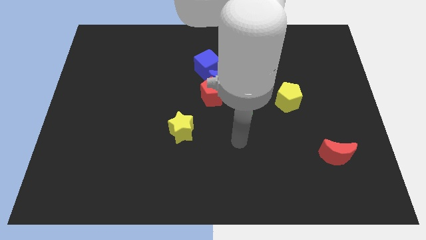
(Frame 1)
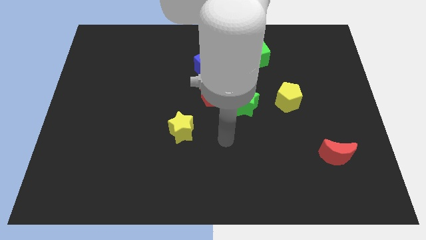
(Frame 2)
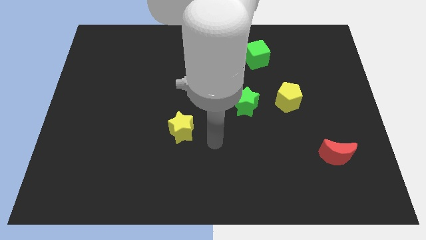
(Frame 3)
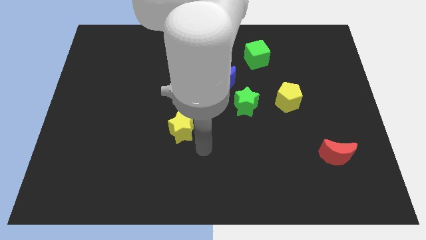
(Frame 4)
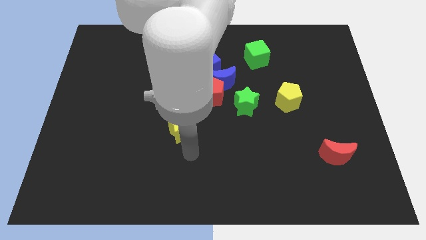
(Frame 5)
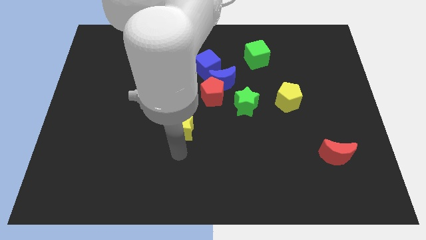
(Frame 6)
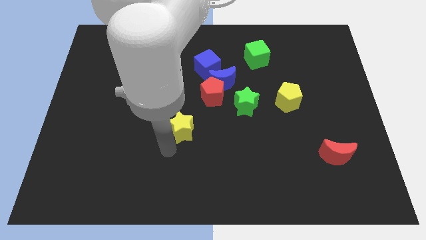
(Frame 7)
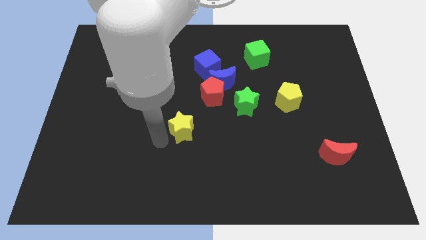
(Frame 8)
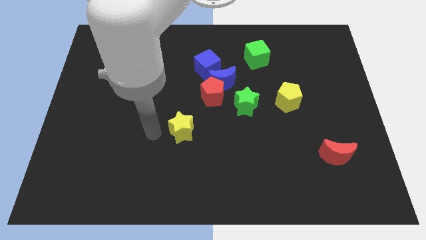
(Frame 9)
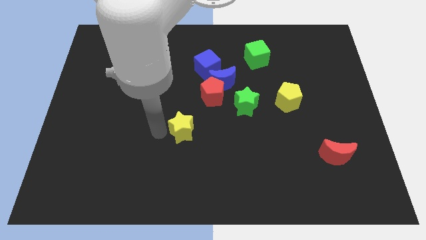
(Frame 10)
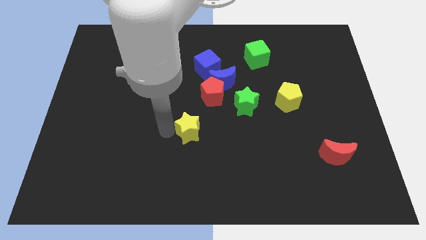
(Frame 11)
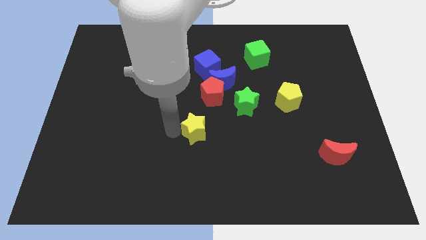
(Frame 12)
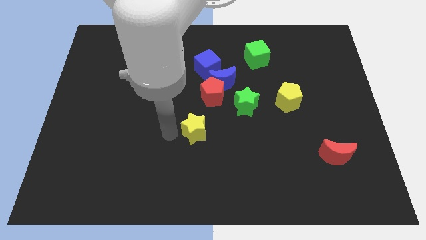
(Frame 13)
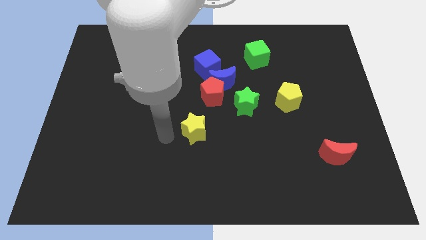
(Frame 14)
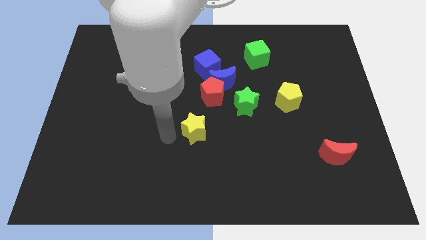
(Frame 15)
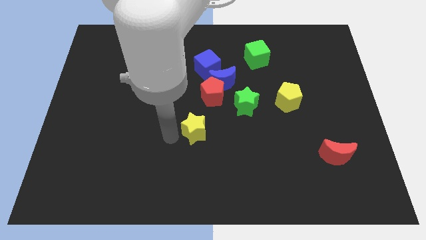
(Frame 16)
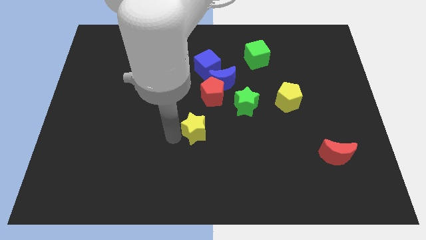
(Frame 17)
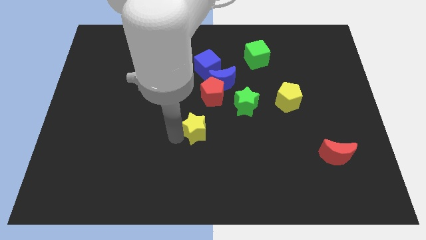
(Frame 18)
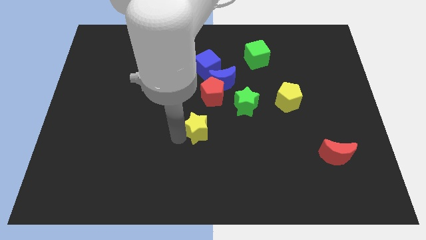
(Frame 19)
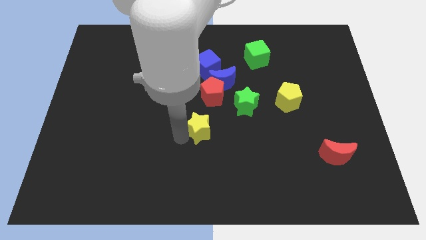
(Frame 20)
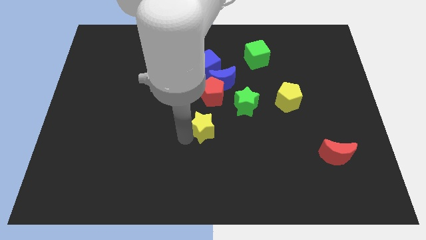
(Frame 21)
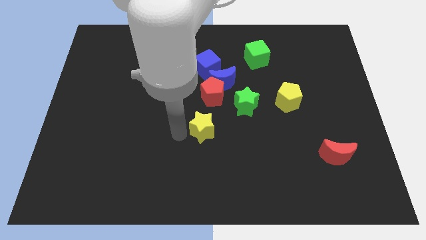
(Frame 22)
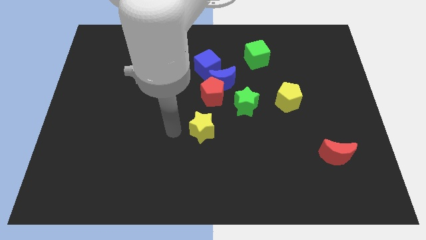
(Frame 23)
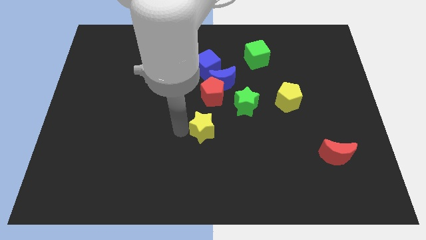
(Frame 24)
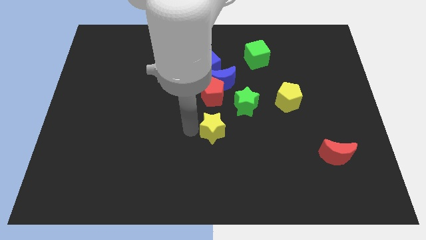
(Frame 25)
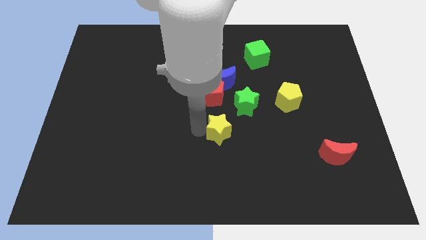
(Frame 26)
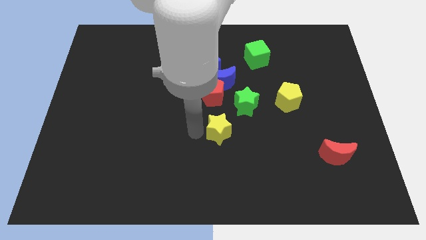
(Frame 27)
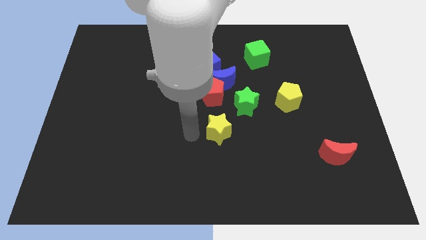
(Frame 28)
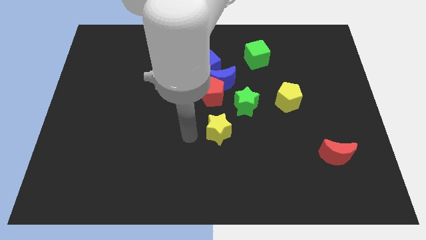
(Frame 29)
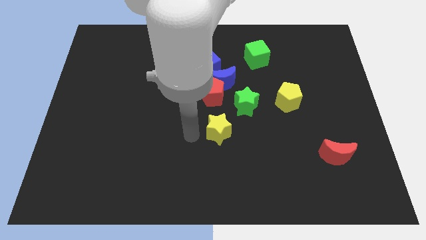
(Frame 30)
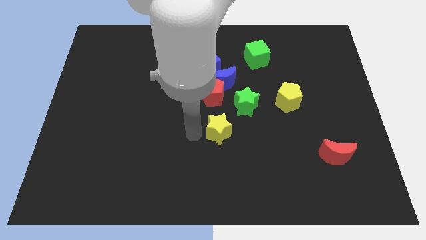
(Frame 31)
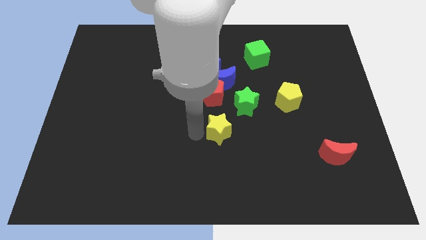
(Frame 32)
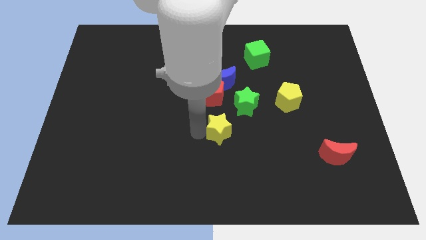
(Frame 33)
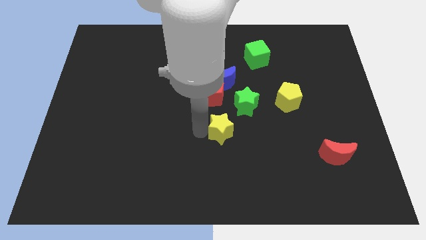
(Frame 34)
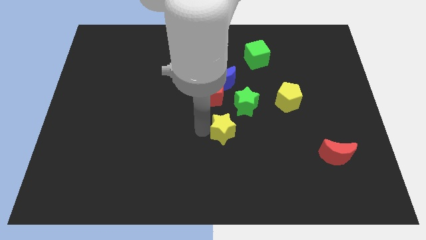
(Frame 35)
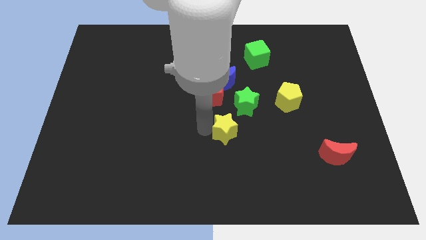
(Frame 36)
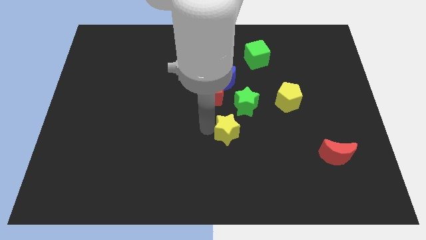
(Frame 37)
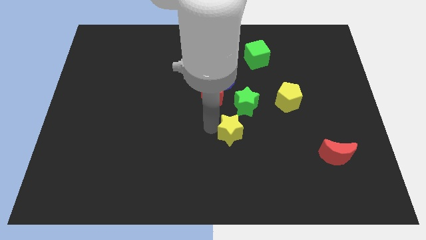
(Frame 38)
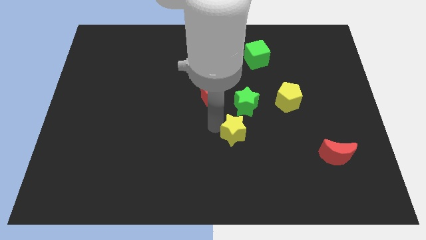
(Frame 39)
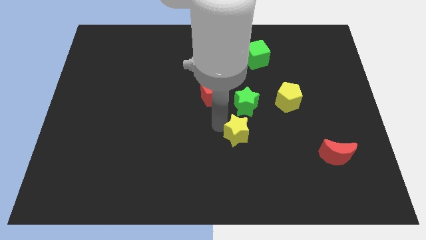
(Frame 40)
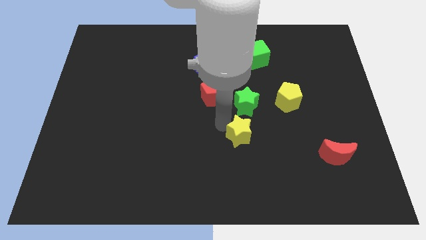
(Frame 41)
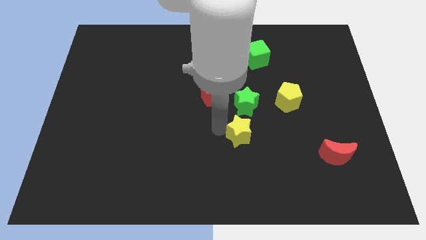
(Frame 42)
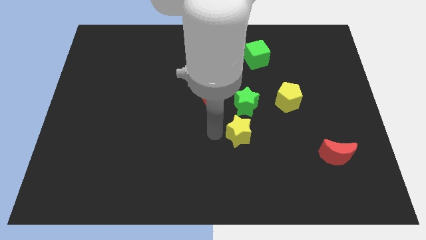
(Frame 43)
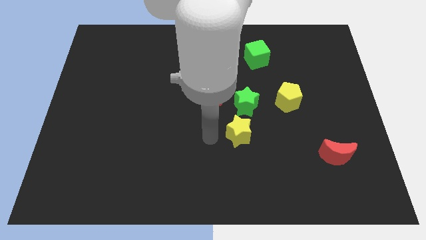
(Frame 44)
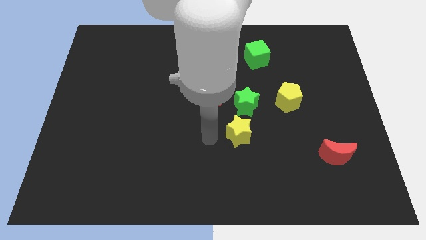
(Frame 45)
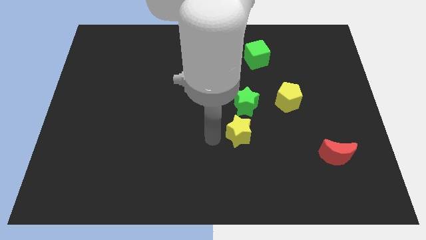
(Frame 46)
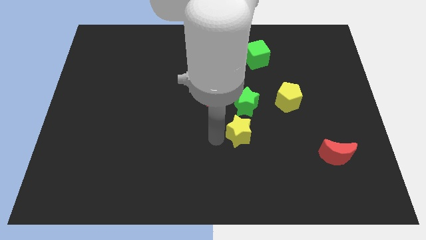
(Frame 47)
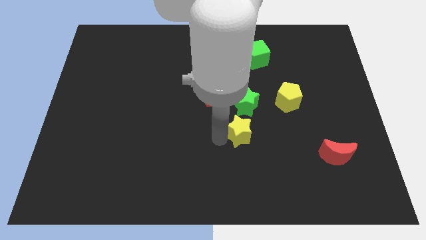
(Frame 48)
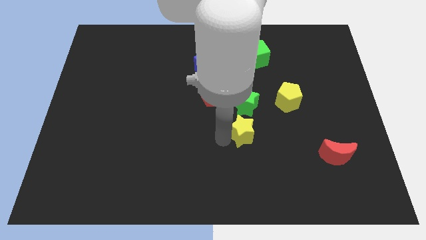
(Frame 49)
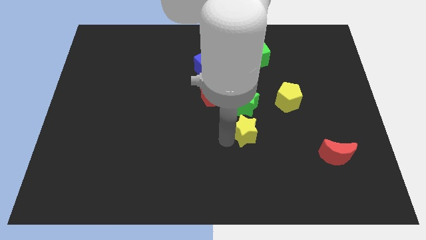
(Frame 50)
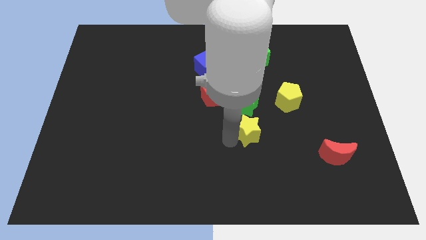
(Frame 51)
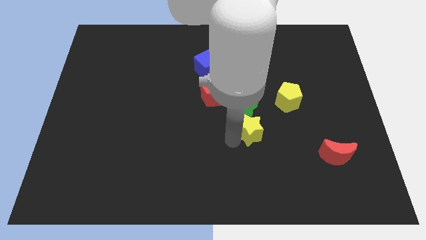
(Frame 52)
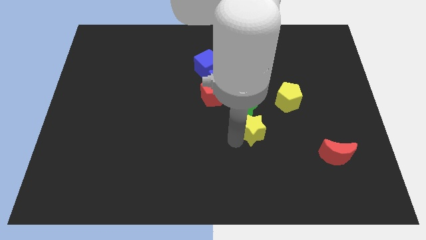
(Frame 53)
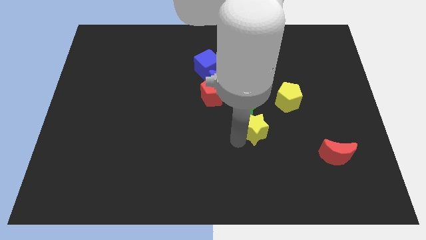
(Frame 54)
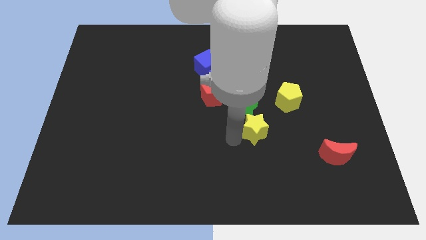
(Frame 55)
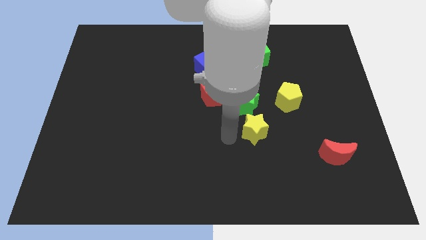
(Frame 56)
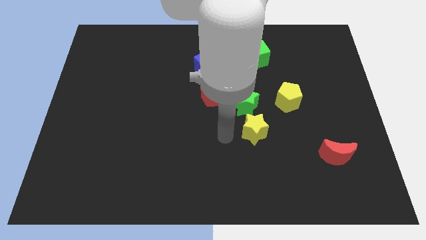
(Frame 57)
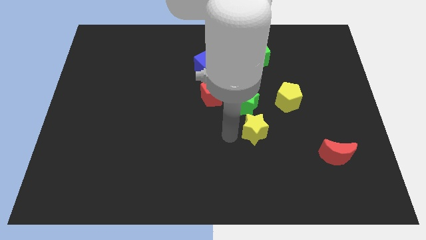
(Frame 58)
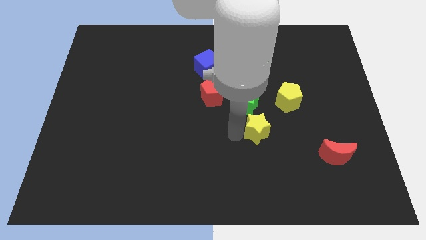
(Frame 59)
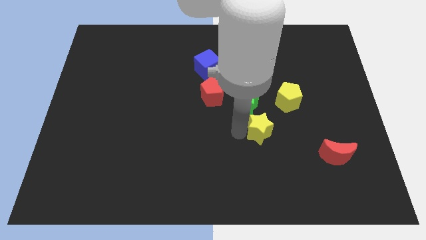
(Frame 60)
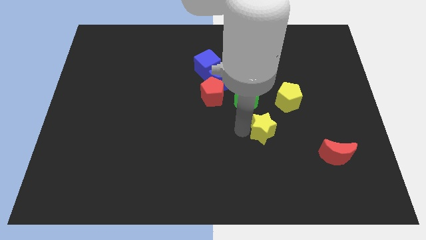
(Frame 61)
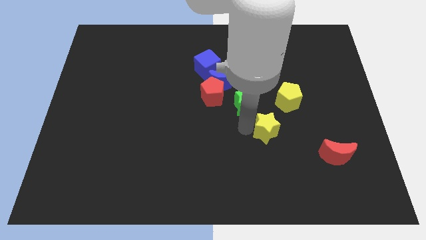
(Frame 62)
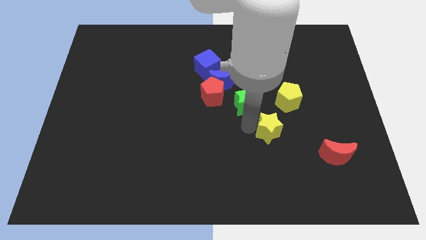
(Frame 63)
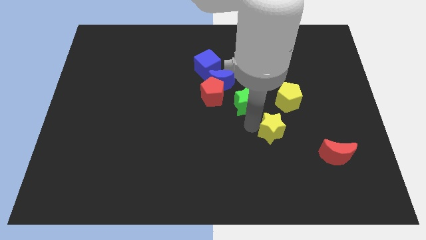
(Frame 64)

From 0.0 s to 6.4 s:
move the yellow star right

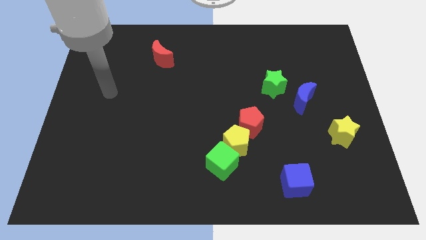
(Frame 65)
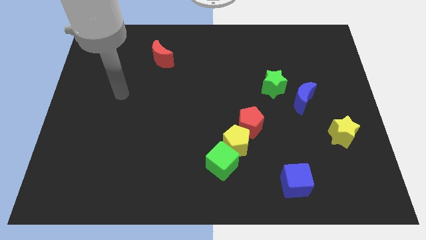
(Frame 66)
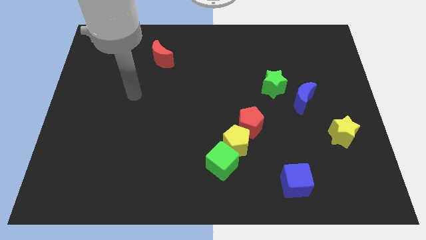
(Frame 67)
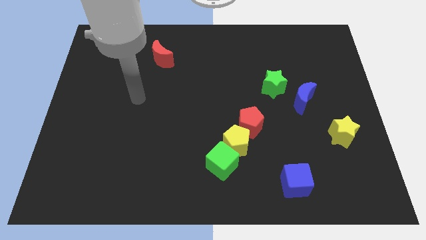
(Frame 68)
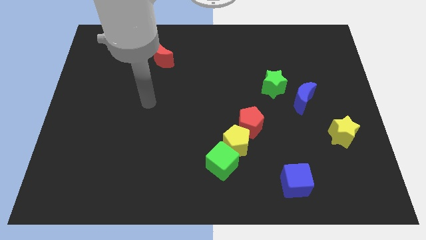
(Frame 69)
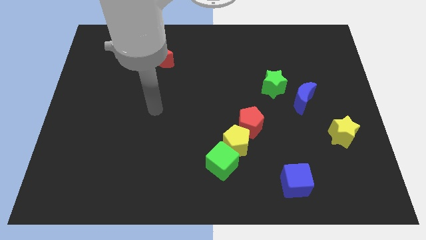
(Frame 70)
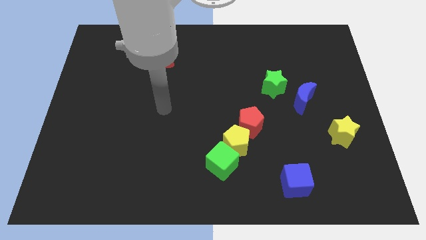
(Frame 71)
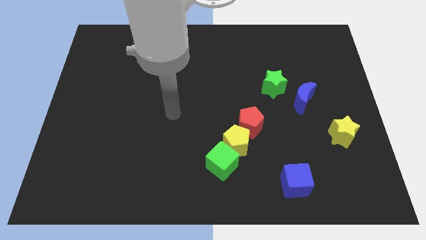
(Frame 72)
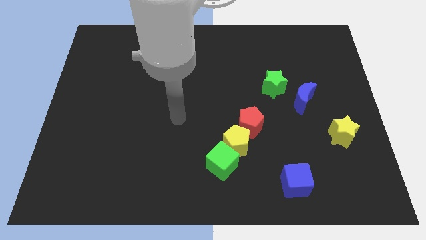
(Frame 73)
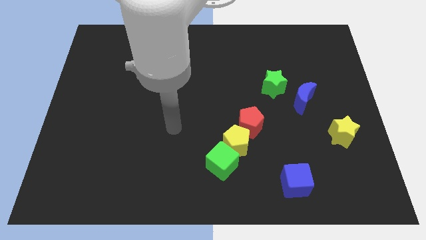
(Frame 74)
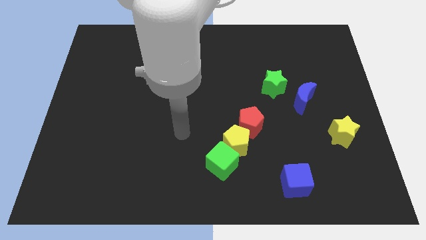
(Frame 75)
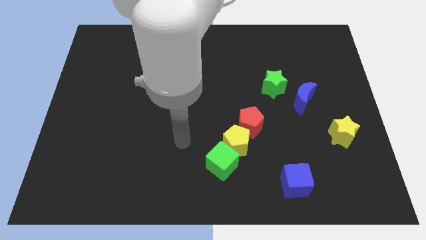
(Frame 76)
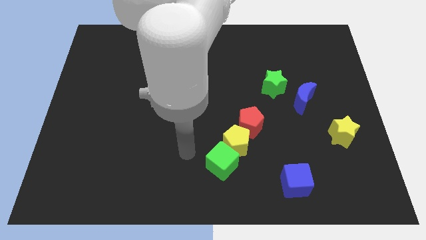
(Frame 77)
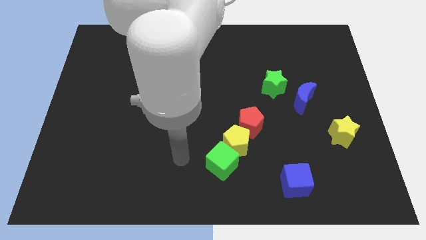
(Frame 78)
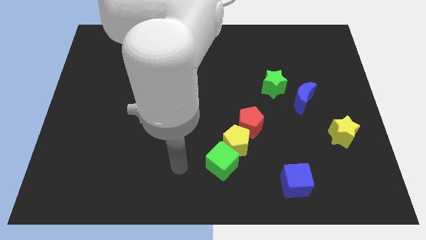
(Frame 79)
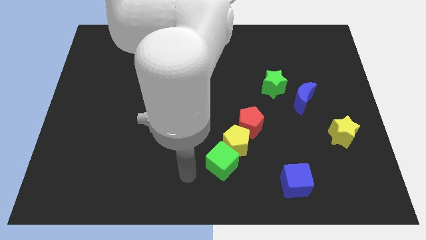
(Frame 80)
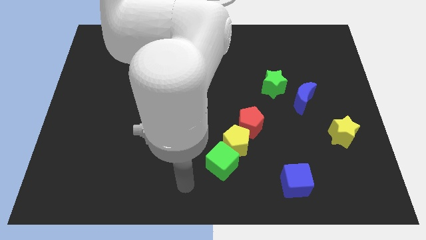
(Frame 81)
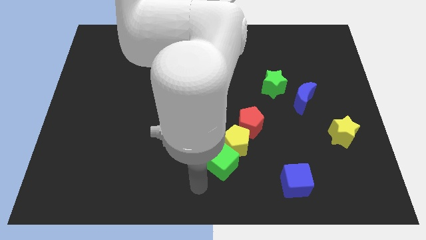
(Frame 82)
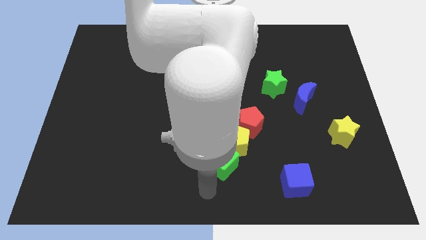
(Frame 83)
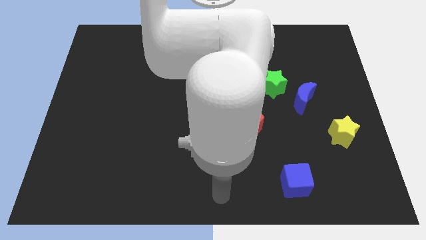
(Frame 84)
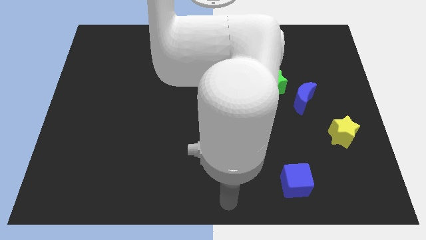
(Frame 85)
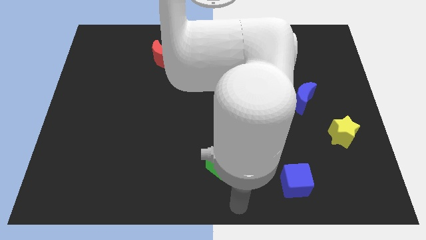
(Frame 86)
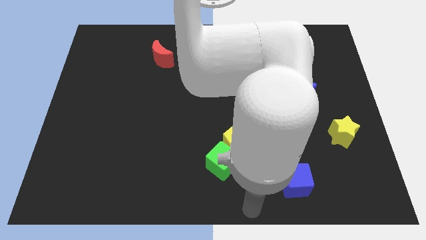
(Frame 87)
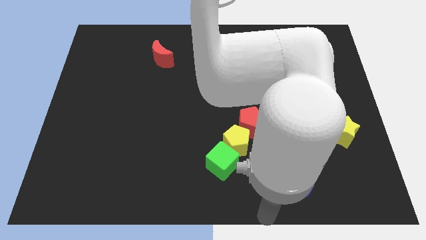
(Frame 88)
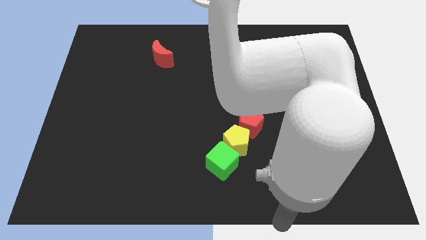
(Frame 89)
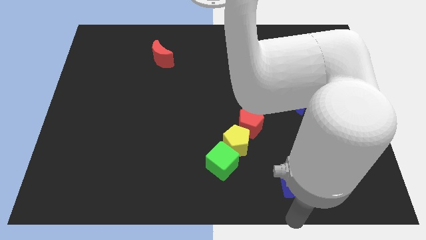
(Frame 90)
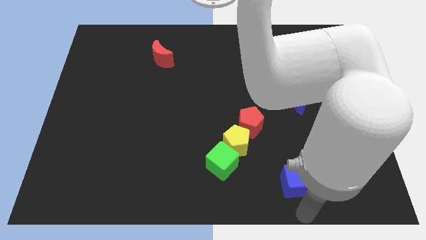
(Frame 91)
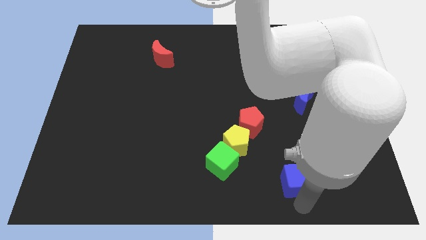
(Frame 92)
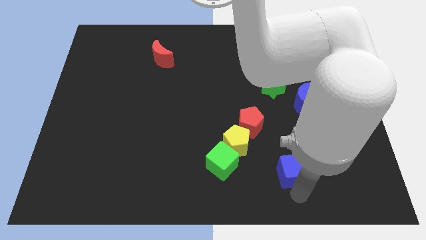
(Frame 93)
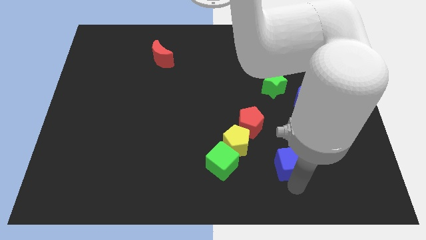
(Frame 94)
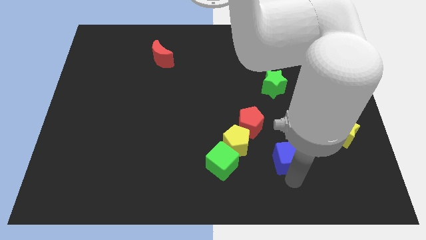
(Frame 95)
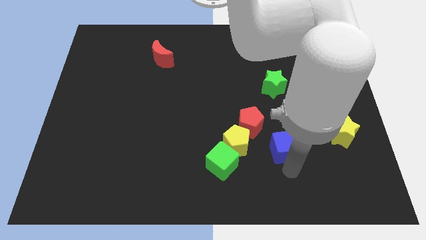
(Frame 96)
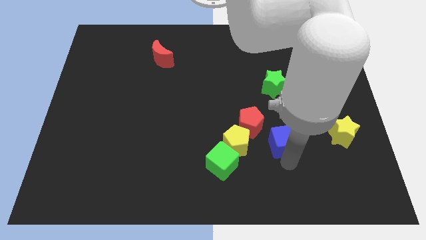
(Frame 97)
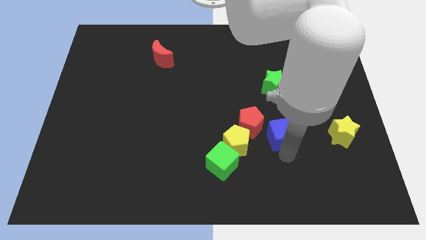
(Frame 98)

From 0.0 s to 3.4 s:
slide the blue cube a bit diagonally upwards and to the left
